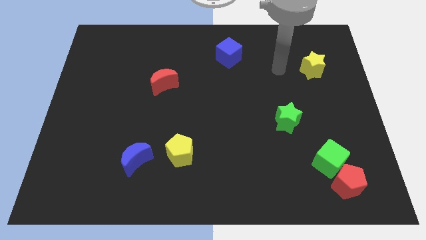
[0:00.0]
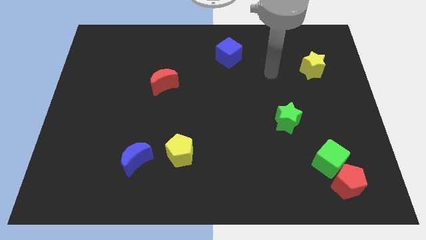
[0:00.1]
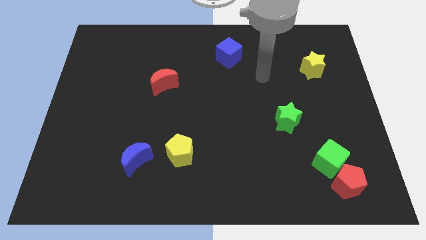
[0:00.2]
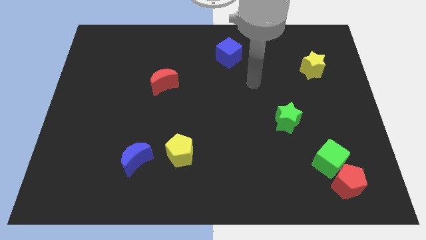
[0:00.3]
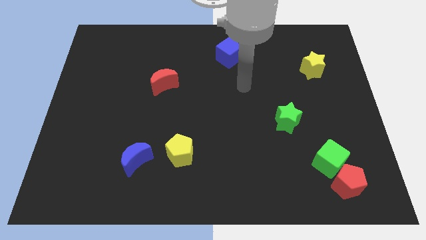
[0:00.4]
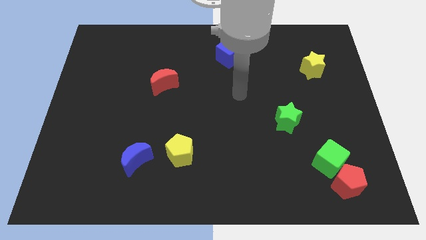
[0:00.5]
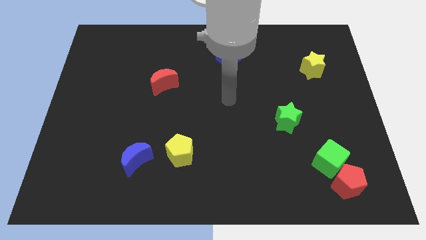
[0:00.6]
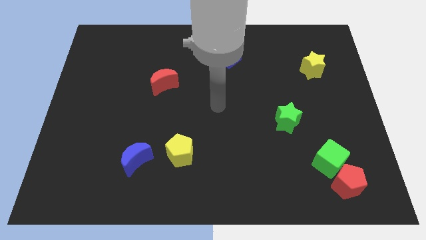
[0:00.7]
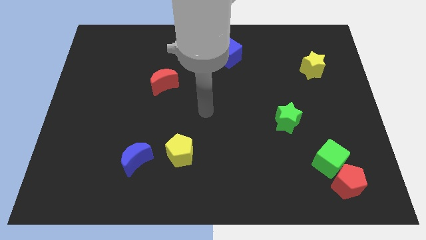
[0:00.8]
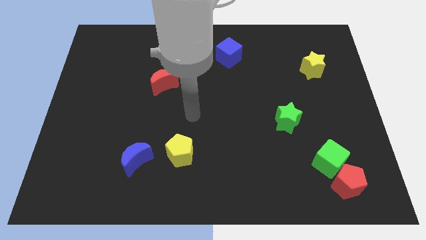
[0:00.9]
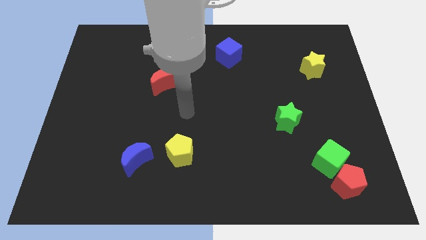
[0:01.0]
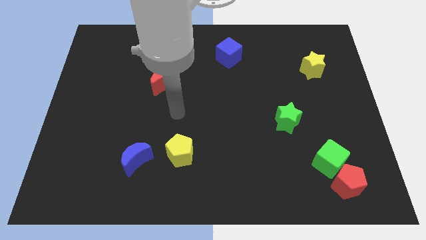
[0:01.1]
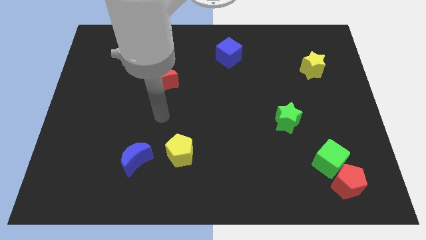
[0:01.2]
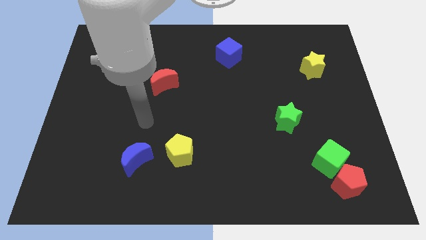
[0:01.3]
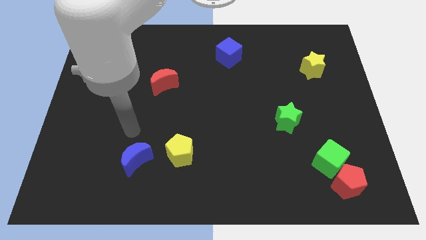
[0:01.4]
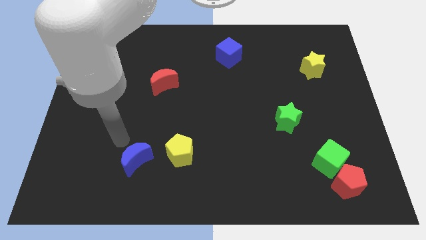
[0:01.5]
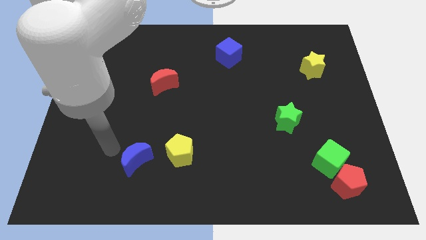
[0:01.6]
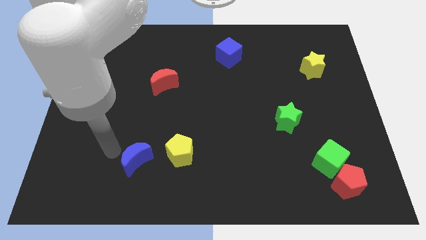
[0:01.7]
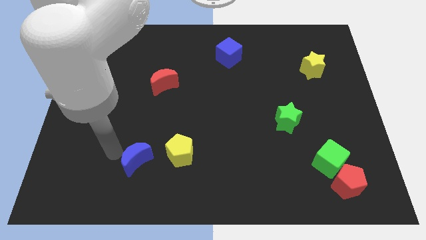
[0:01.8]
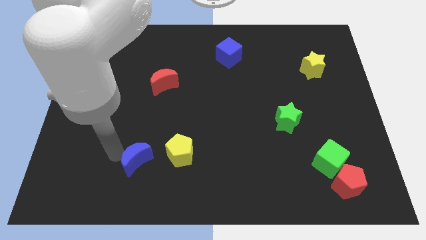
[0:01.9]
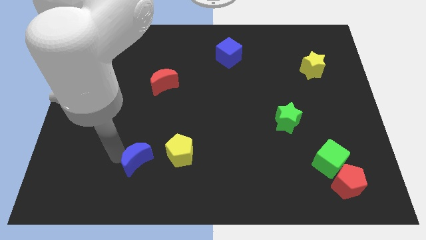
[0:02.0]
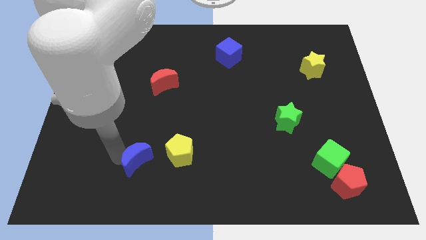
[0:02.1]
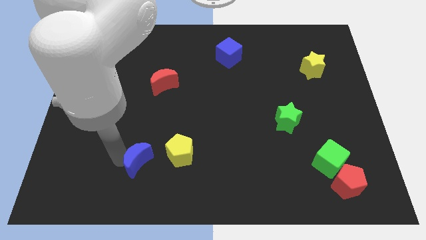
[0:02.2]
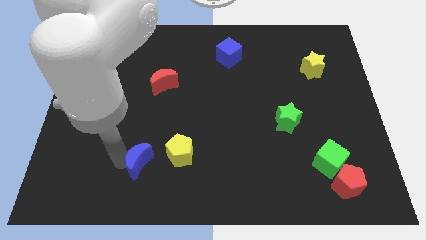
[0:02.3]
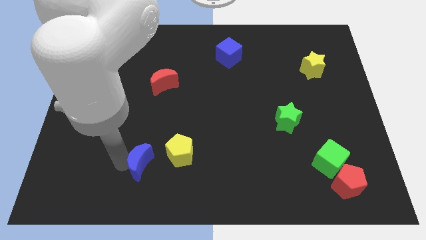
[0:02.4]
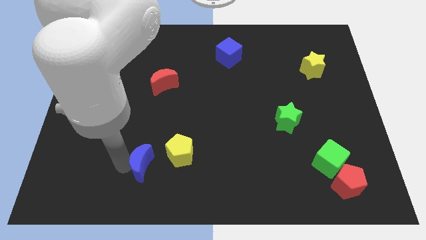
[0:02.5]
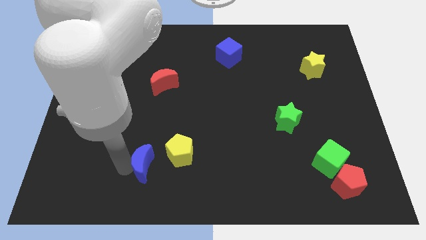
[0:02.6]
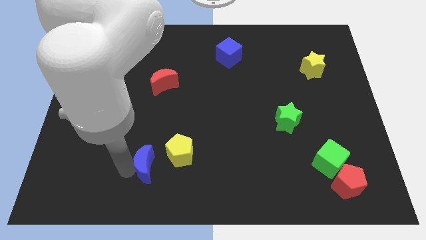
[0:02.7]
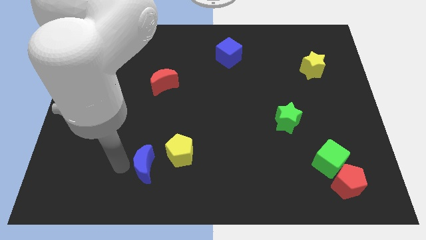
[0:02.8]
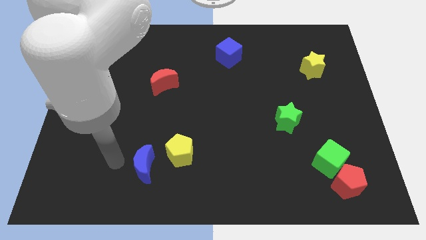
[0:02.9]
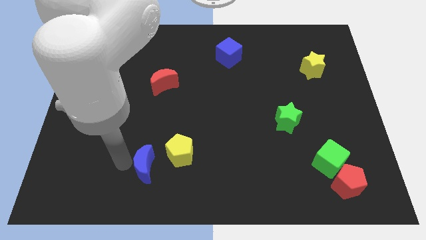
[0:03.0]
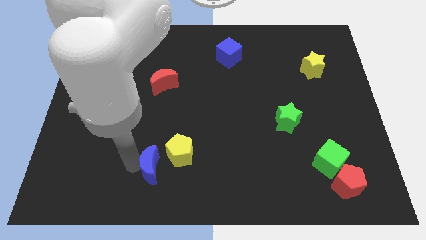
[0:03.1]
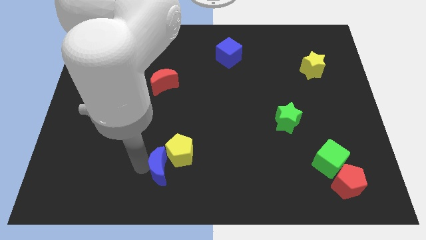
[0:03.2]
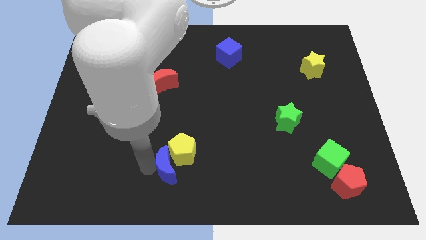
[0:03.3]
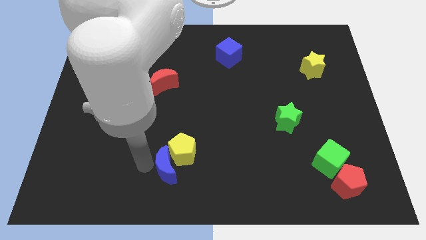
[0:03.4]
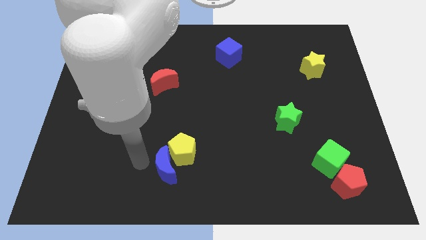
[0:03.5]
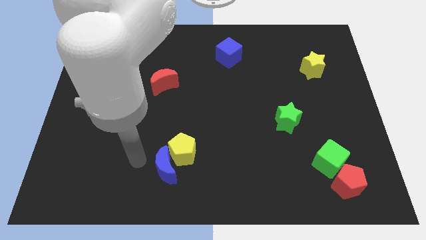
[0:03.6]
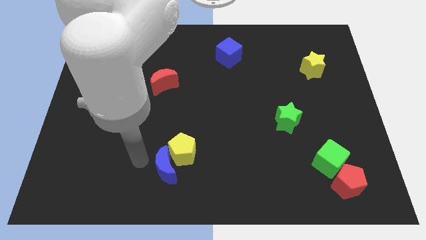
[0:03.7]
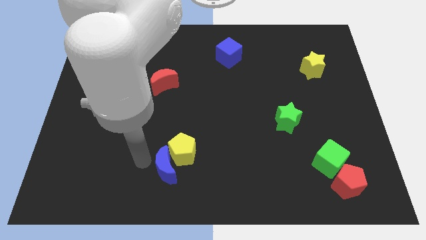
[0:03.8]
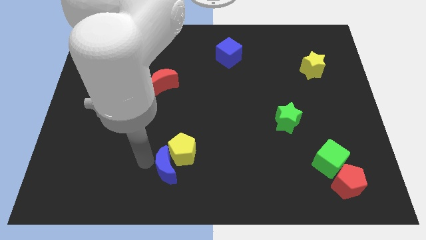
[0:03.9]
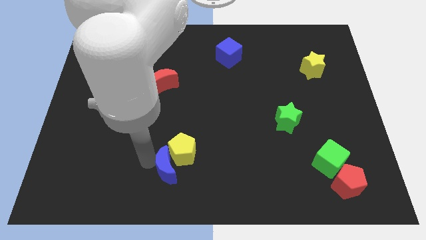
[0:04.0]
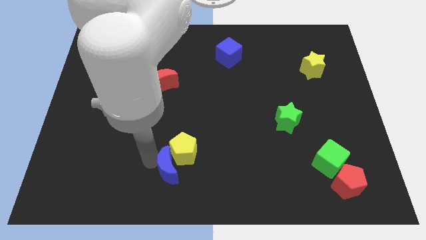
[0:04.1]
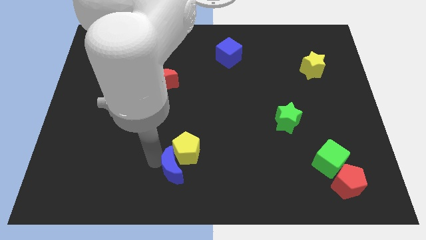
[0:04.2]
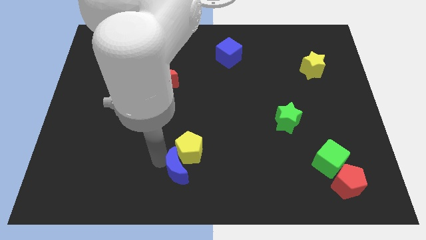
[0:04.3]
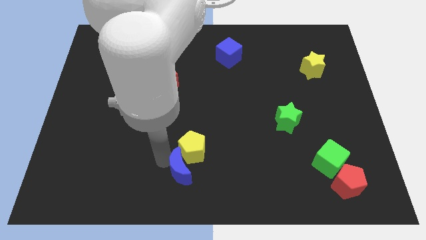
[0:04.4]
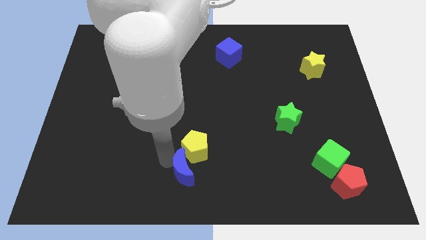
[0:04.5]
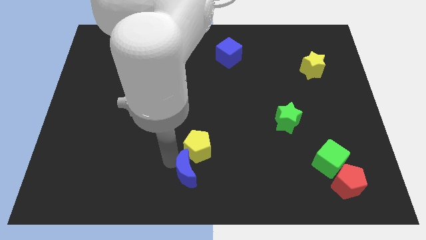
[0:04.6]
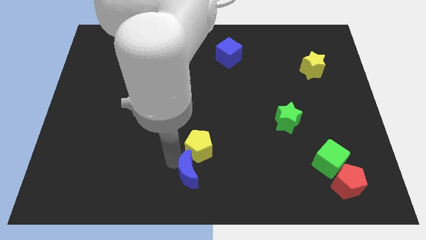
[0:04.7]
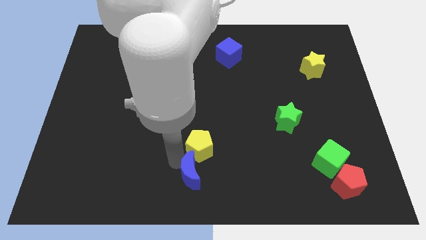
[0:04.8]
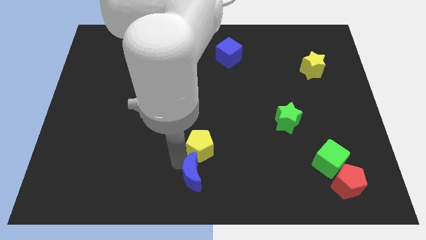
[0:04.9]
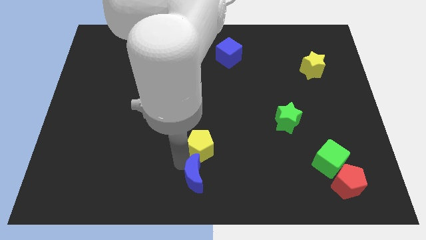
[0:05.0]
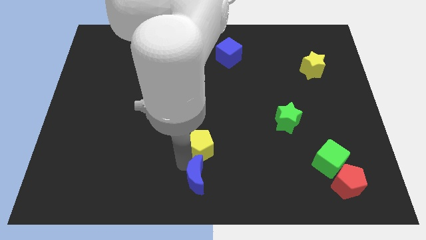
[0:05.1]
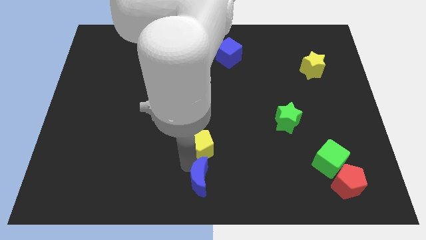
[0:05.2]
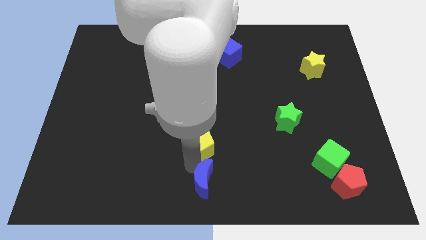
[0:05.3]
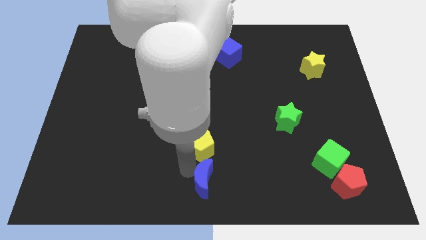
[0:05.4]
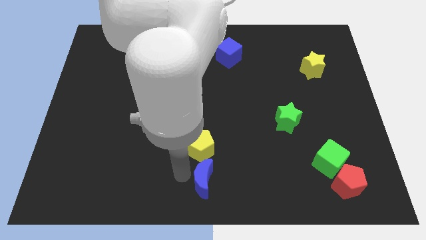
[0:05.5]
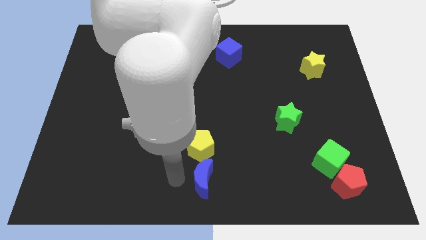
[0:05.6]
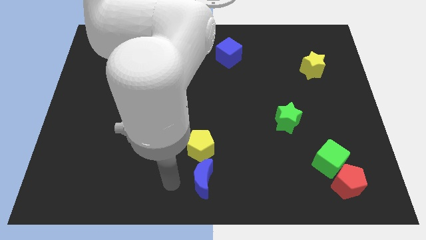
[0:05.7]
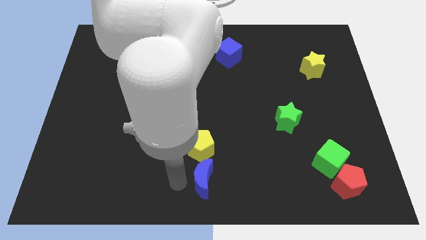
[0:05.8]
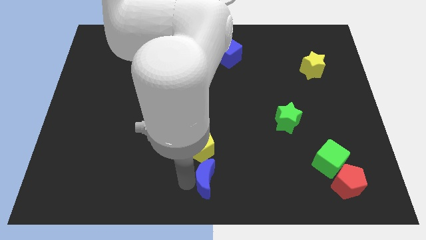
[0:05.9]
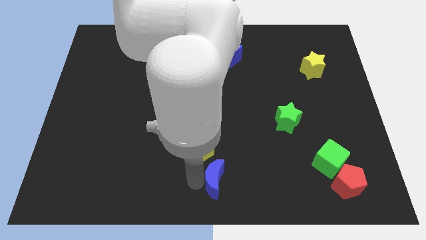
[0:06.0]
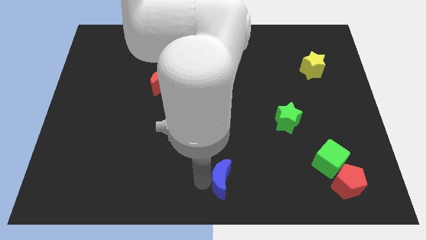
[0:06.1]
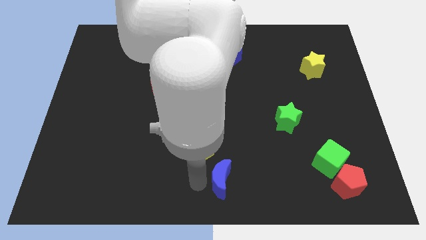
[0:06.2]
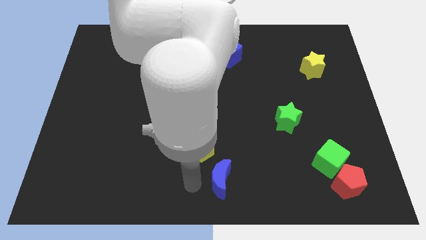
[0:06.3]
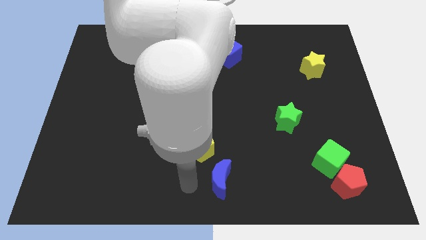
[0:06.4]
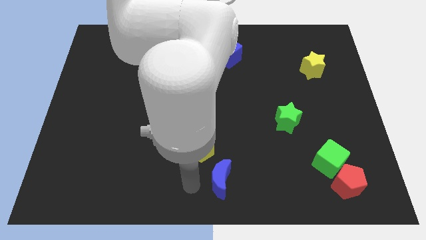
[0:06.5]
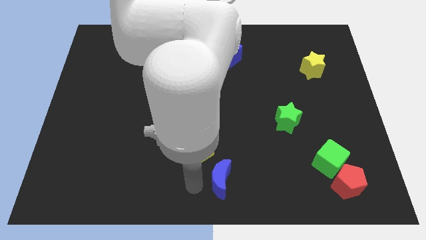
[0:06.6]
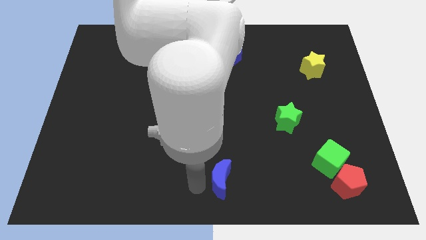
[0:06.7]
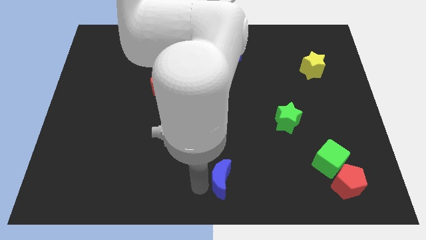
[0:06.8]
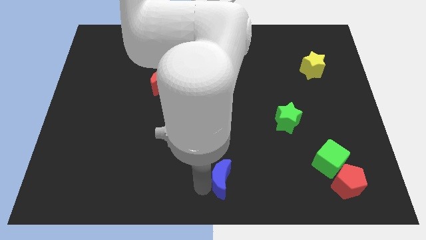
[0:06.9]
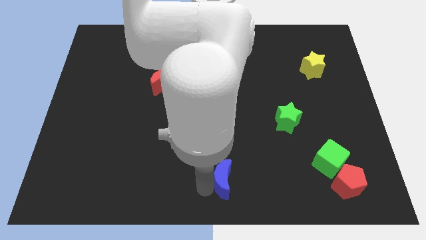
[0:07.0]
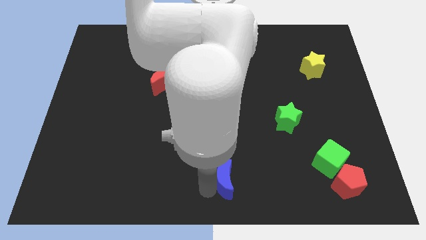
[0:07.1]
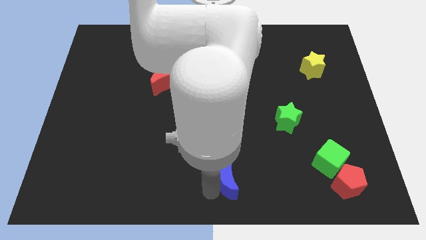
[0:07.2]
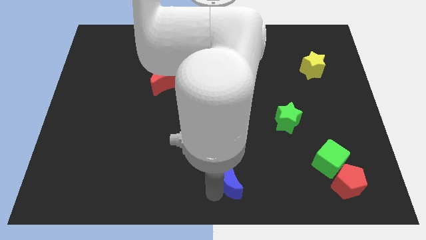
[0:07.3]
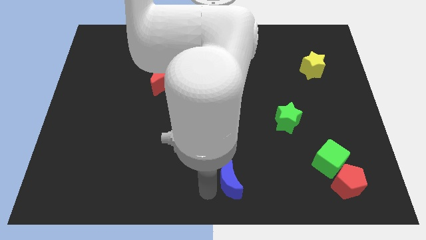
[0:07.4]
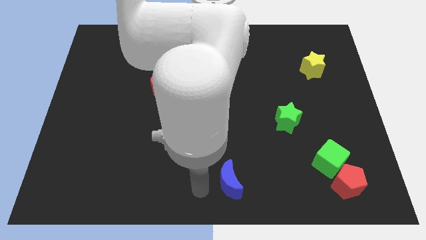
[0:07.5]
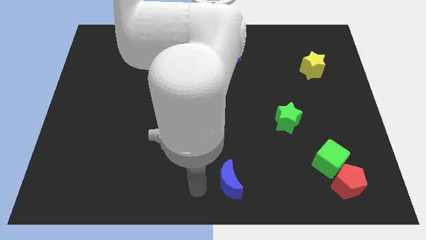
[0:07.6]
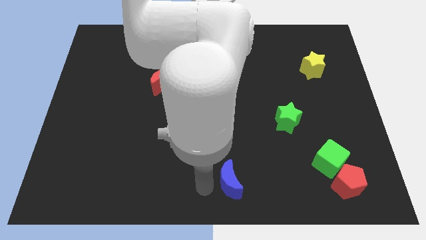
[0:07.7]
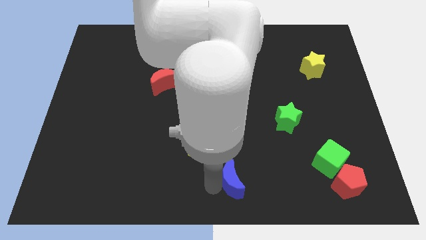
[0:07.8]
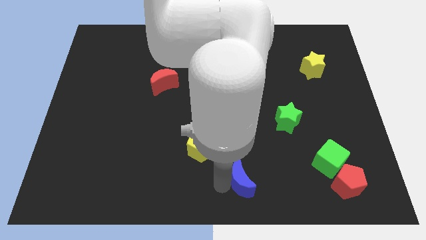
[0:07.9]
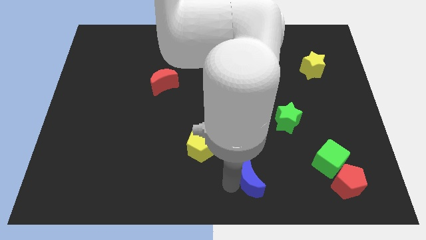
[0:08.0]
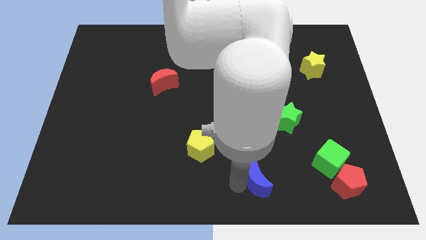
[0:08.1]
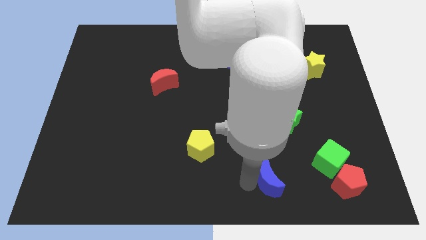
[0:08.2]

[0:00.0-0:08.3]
slide the blue moon to the left of the red pentagon

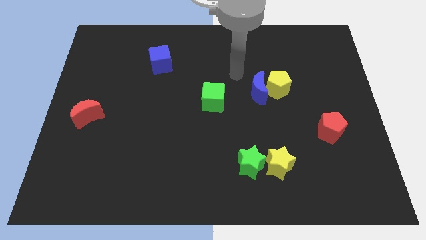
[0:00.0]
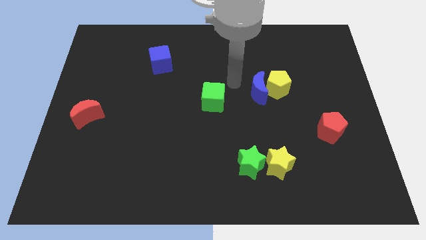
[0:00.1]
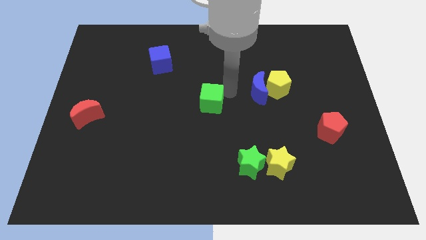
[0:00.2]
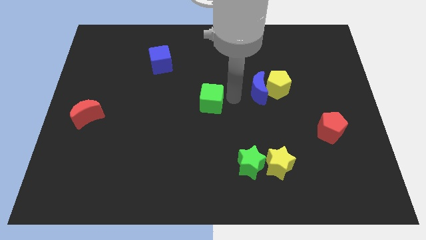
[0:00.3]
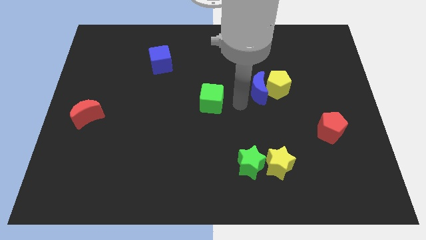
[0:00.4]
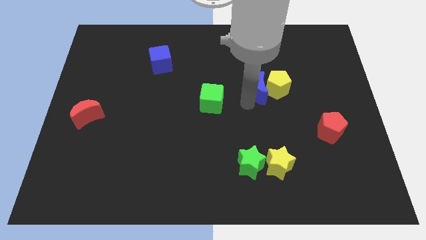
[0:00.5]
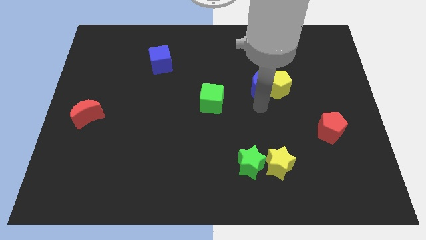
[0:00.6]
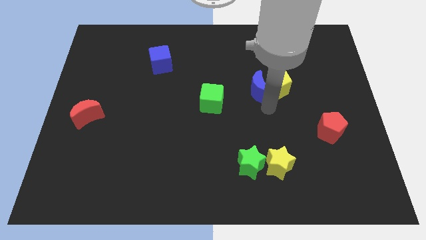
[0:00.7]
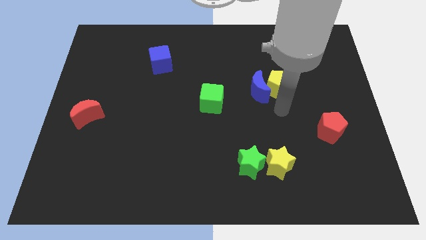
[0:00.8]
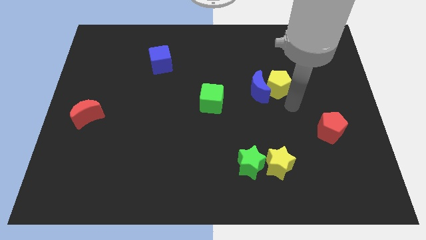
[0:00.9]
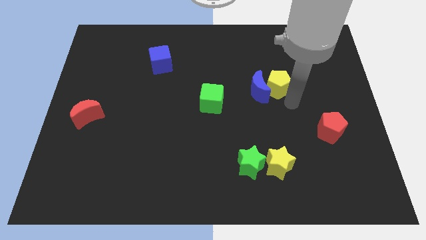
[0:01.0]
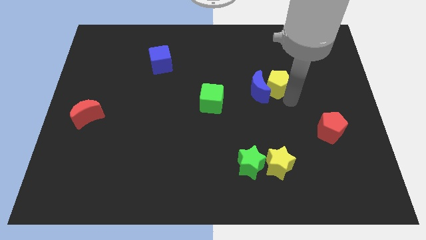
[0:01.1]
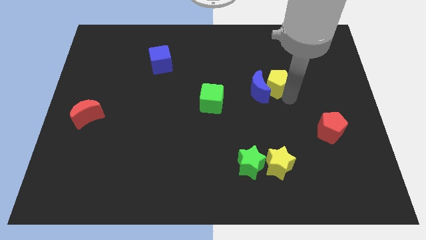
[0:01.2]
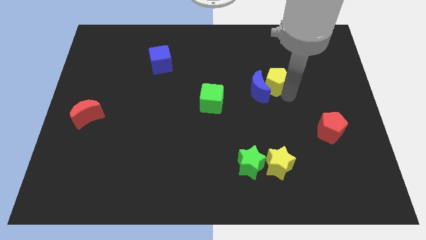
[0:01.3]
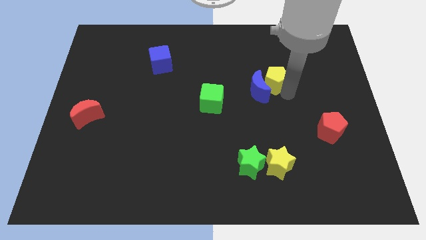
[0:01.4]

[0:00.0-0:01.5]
slide the yellow pentagon above the blue moon
